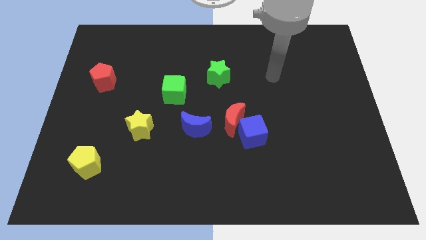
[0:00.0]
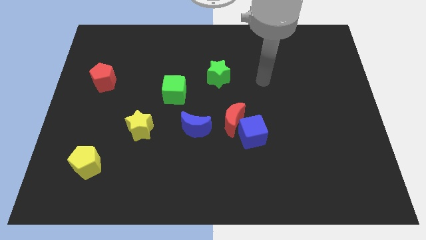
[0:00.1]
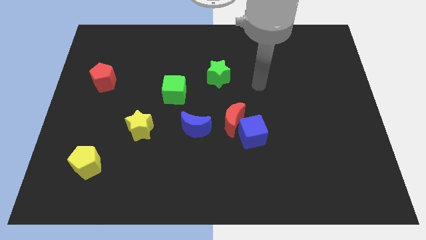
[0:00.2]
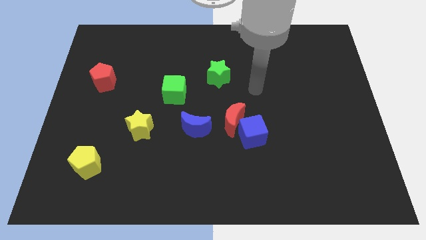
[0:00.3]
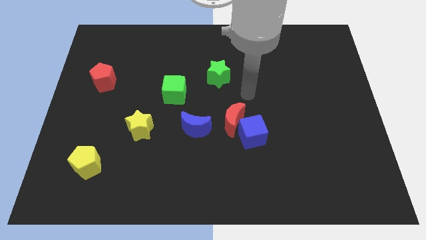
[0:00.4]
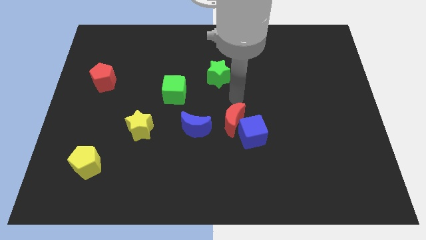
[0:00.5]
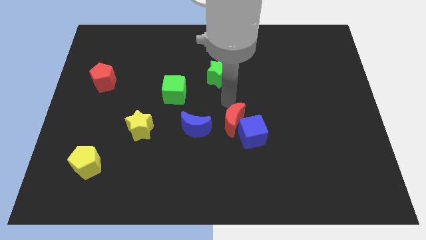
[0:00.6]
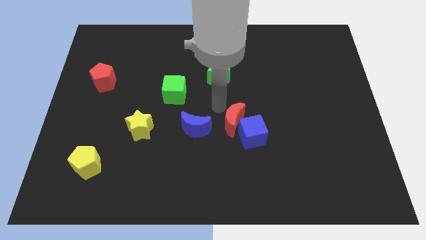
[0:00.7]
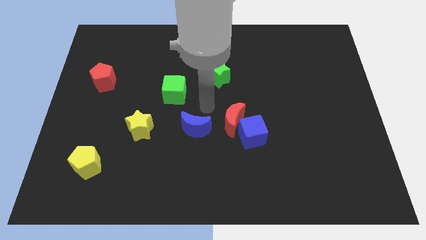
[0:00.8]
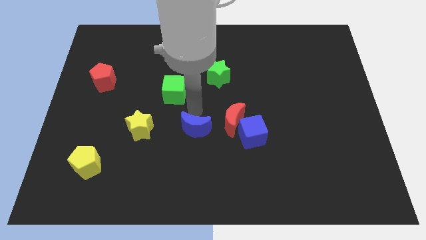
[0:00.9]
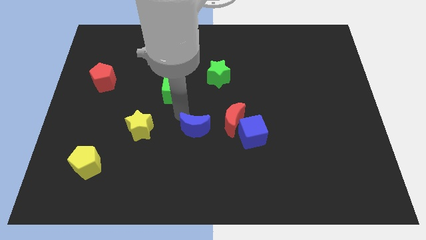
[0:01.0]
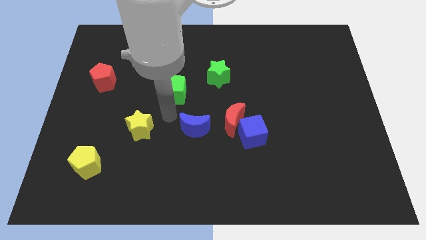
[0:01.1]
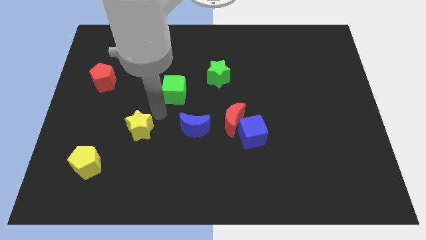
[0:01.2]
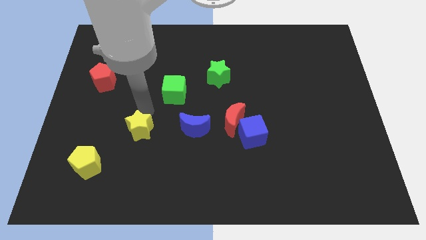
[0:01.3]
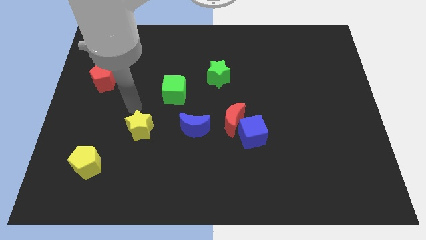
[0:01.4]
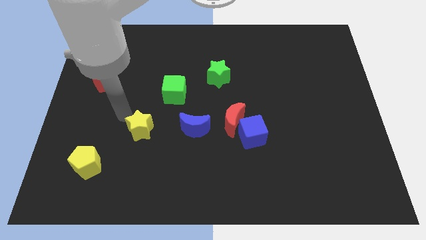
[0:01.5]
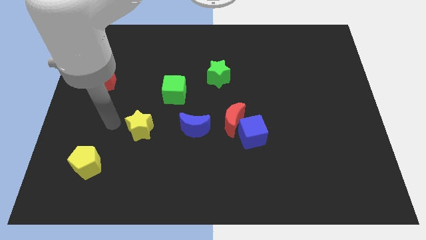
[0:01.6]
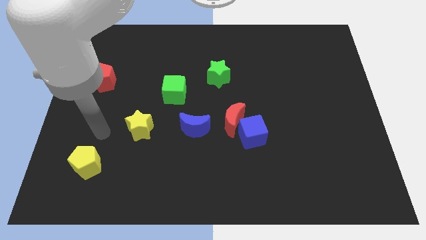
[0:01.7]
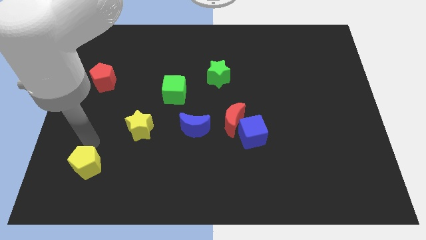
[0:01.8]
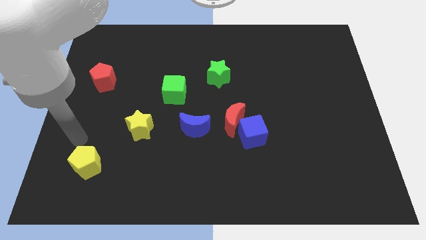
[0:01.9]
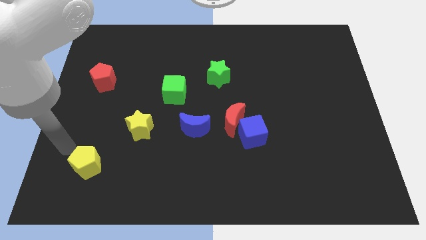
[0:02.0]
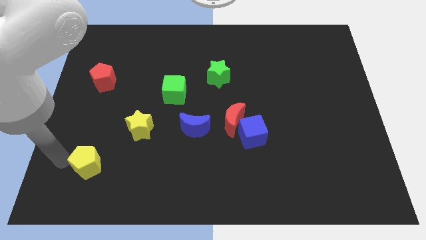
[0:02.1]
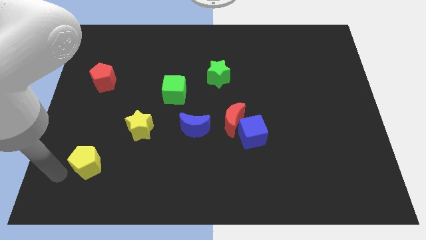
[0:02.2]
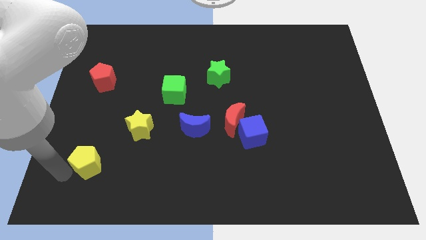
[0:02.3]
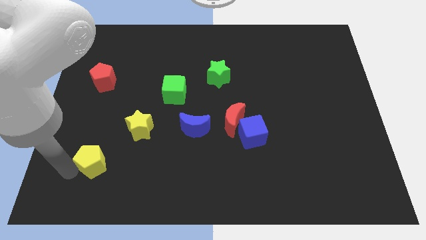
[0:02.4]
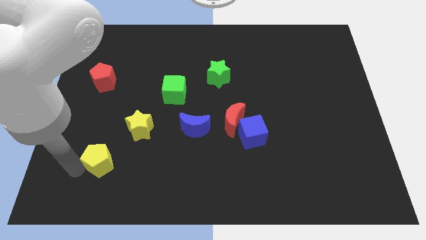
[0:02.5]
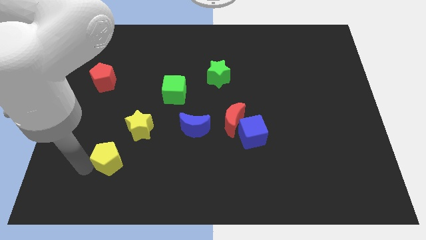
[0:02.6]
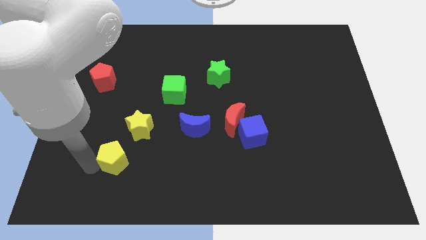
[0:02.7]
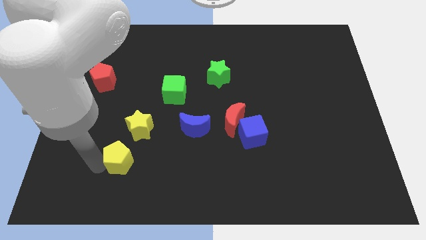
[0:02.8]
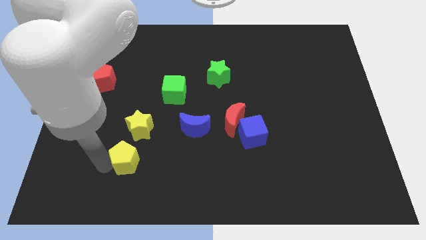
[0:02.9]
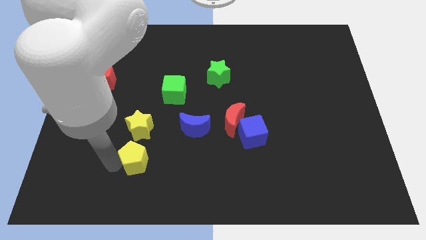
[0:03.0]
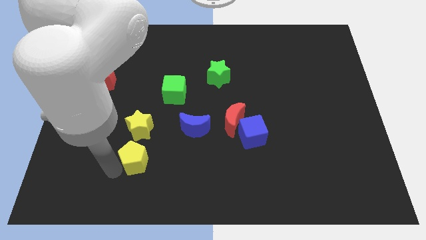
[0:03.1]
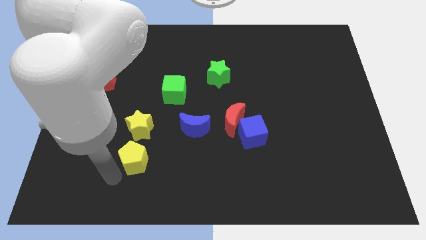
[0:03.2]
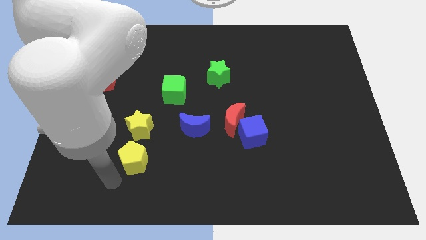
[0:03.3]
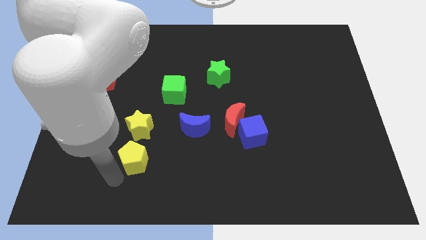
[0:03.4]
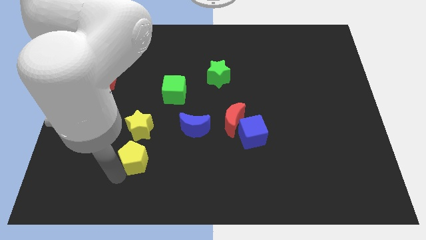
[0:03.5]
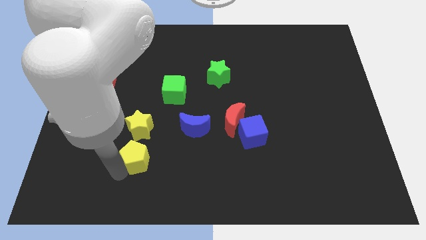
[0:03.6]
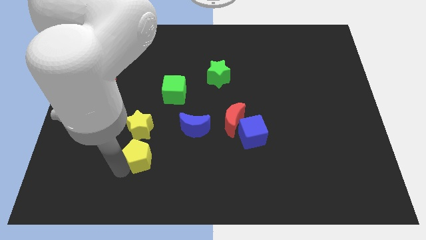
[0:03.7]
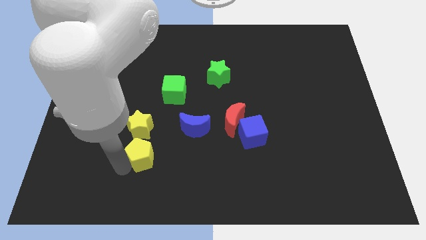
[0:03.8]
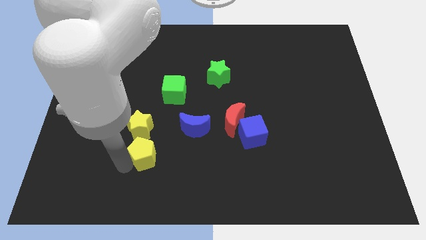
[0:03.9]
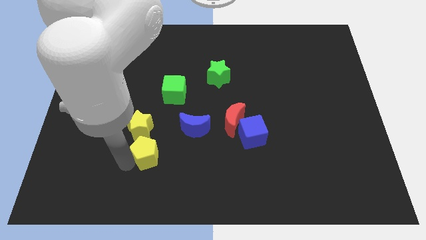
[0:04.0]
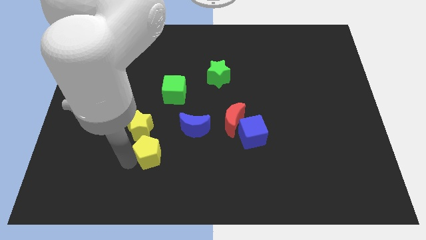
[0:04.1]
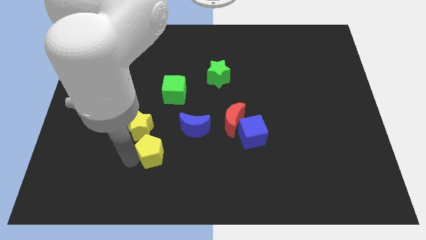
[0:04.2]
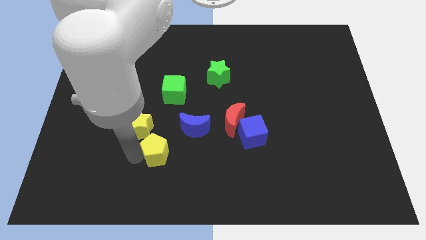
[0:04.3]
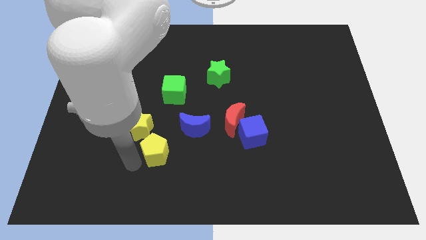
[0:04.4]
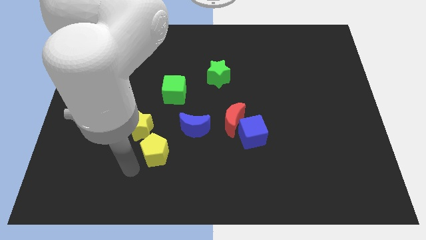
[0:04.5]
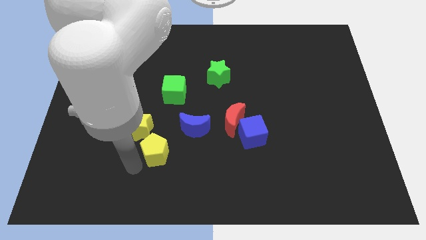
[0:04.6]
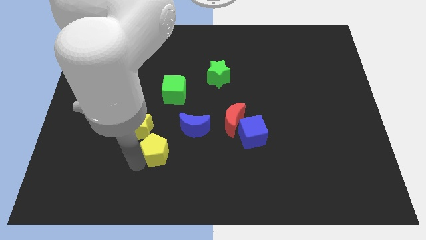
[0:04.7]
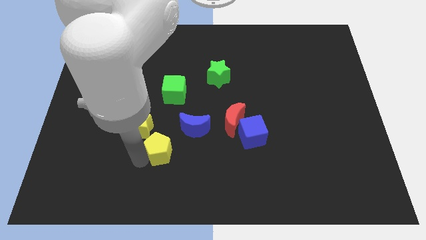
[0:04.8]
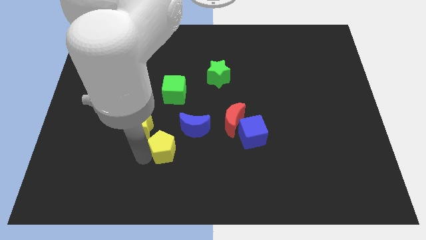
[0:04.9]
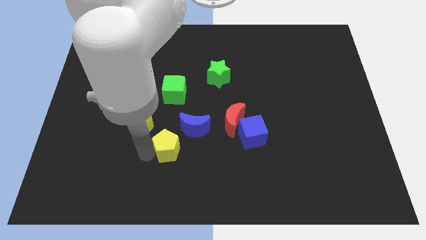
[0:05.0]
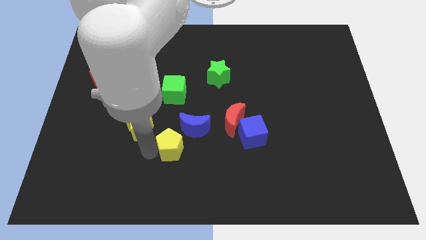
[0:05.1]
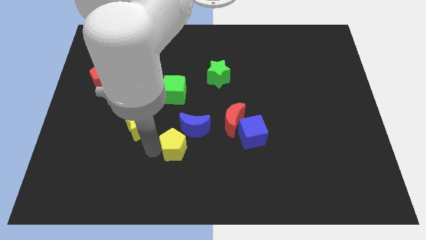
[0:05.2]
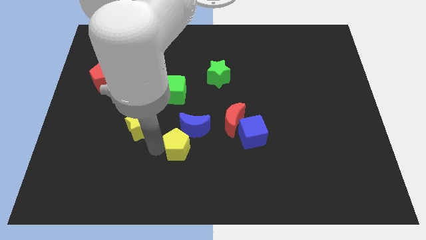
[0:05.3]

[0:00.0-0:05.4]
slide the yellow pentagon to the blue moon

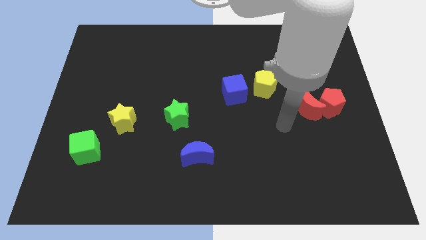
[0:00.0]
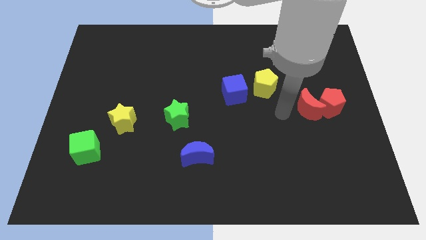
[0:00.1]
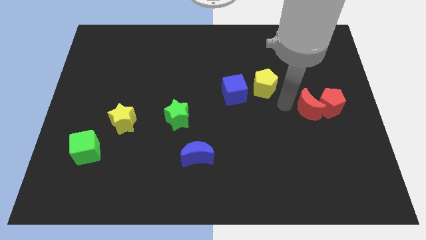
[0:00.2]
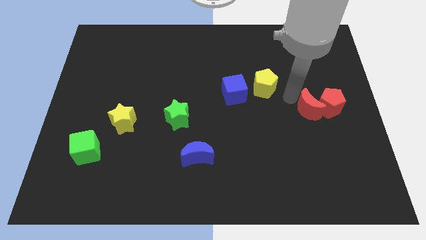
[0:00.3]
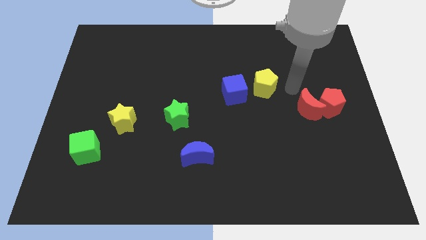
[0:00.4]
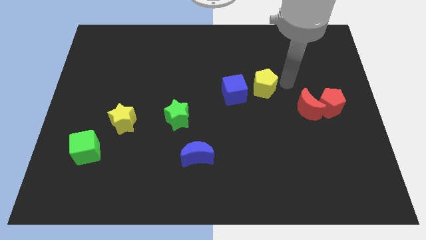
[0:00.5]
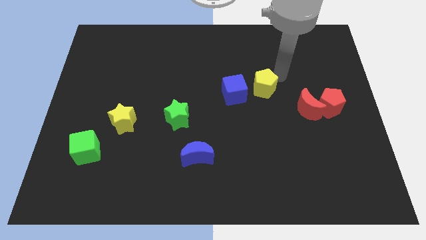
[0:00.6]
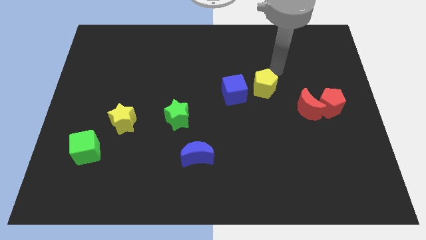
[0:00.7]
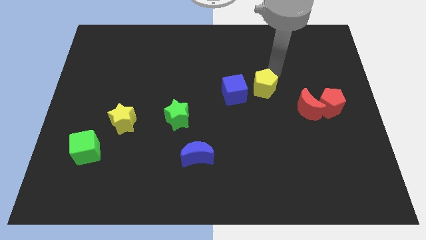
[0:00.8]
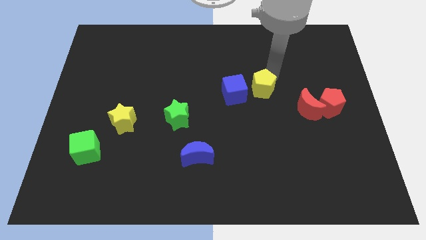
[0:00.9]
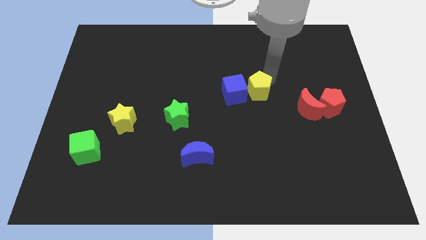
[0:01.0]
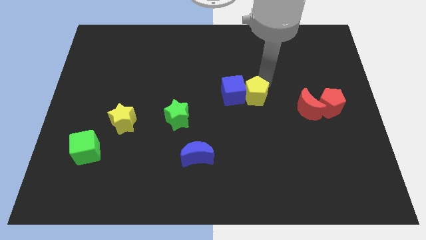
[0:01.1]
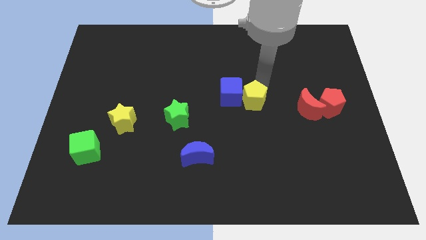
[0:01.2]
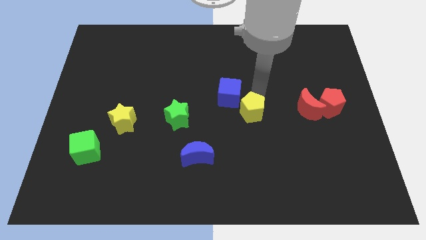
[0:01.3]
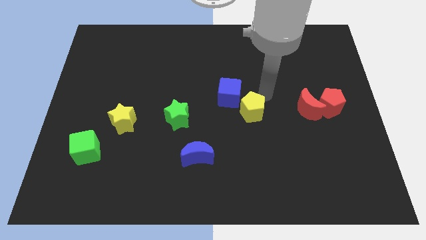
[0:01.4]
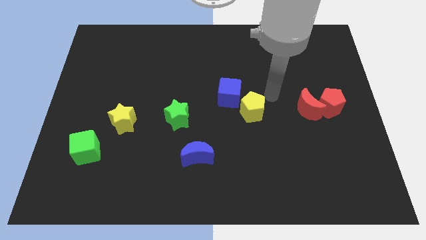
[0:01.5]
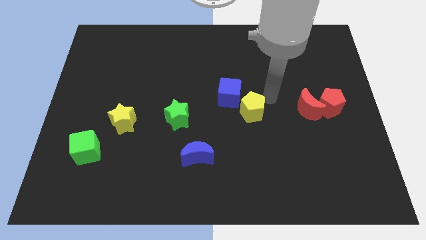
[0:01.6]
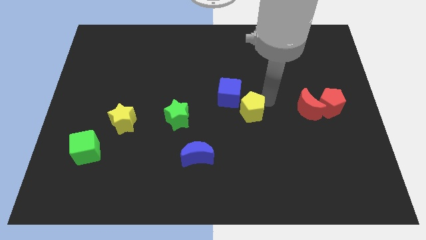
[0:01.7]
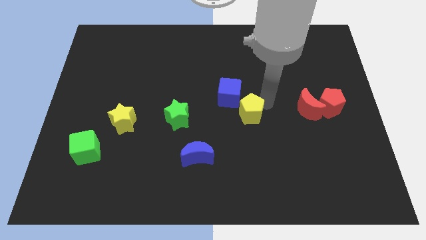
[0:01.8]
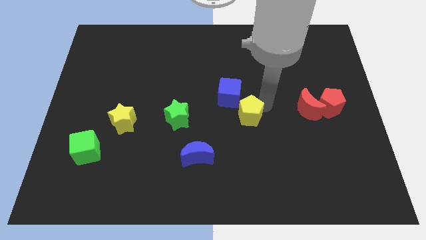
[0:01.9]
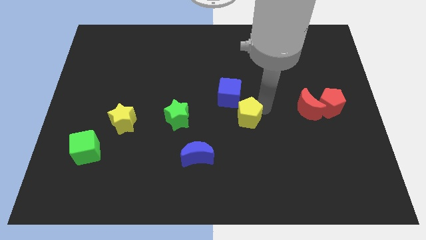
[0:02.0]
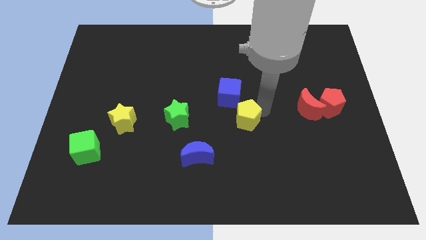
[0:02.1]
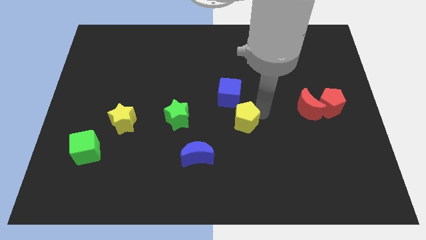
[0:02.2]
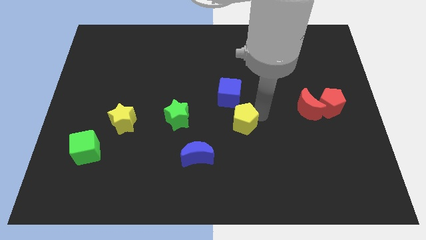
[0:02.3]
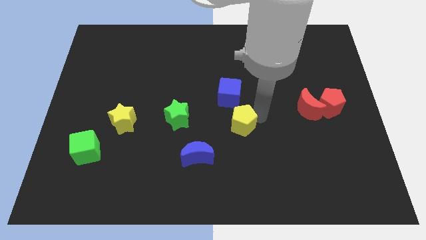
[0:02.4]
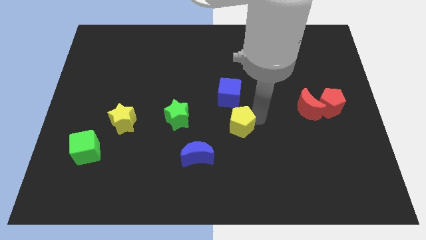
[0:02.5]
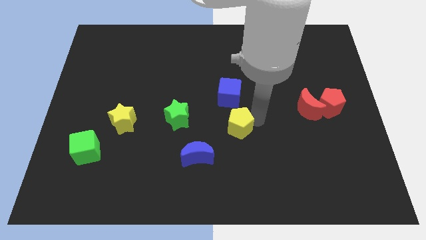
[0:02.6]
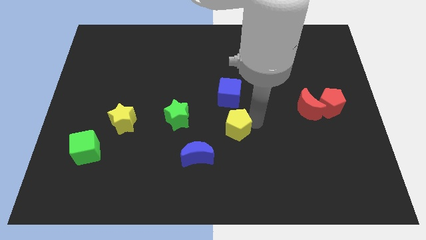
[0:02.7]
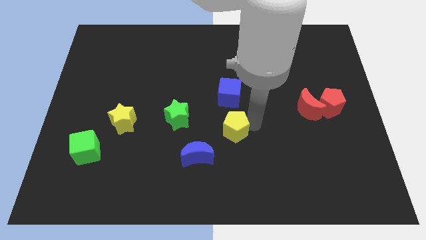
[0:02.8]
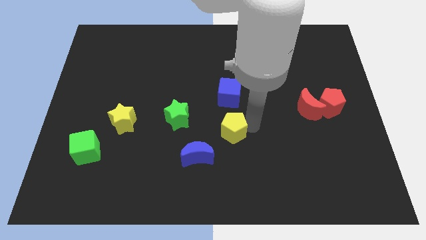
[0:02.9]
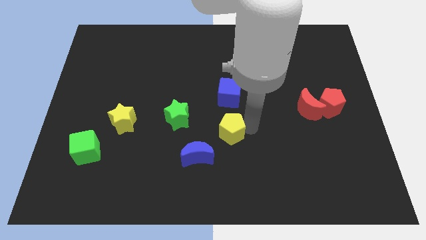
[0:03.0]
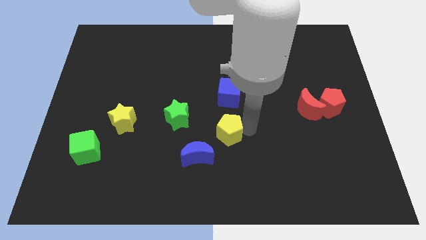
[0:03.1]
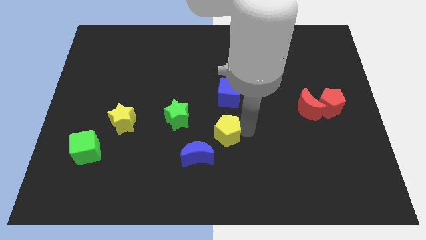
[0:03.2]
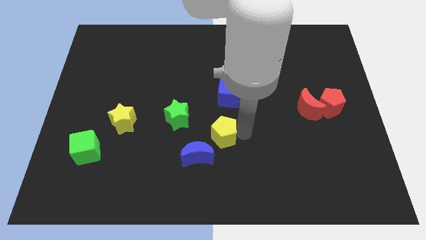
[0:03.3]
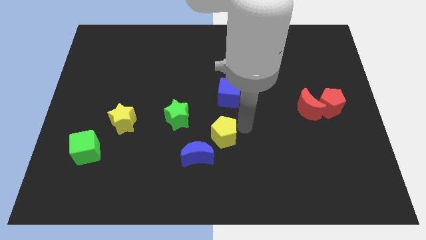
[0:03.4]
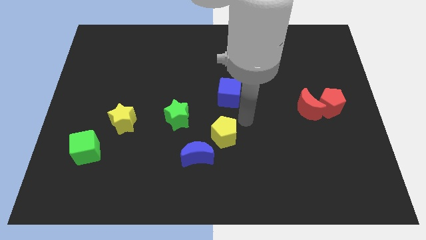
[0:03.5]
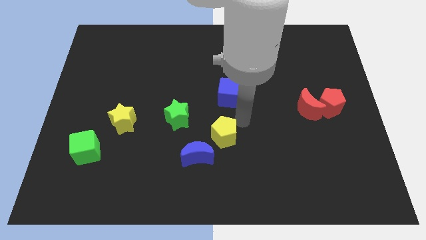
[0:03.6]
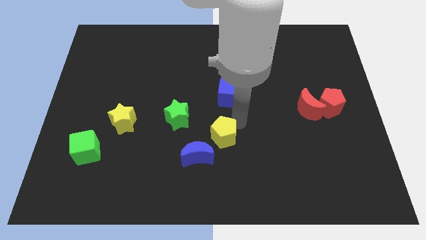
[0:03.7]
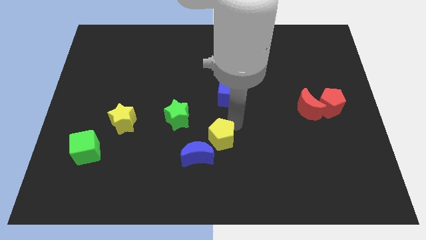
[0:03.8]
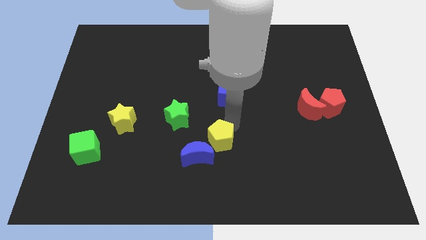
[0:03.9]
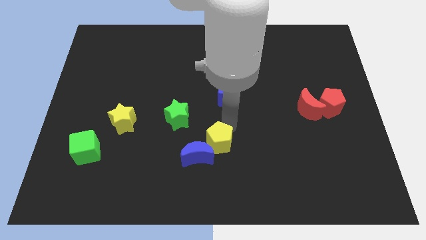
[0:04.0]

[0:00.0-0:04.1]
move the yellow pentagon close to the blue moon
